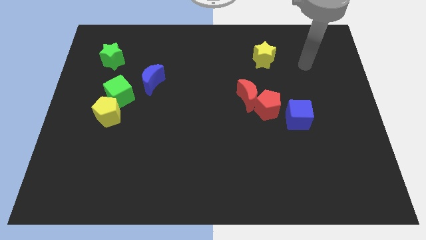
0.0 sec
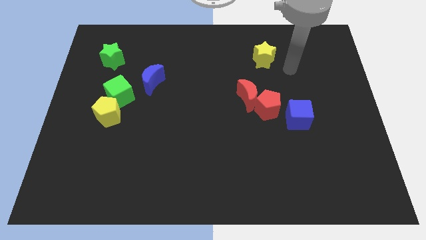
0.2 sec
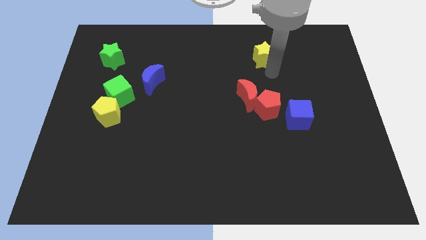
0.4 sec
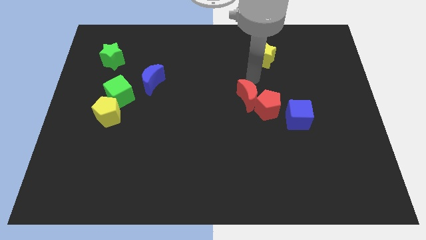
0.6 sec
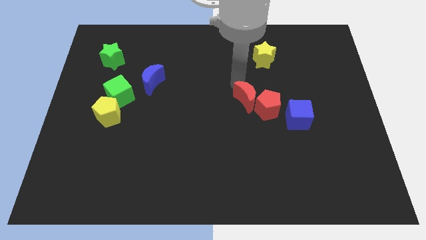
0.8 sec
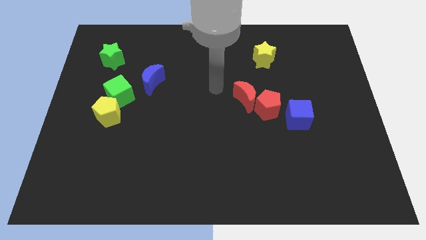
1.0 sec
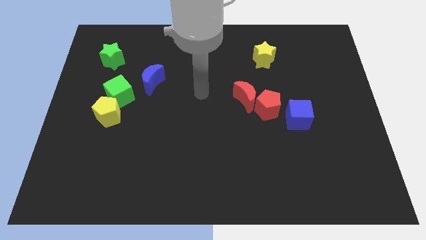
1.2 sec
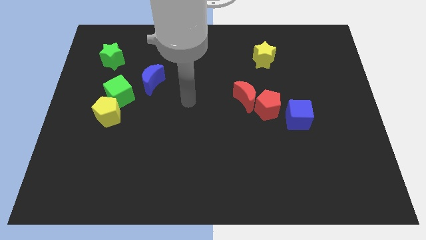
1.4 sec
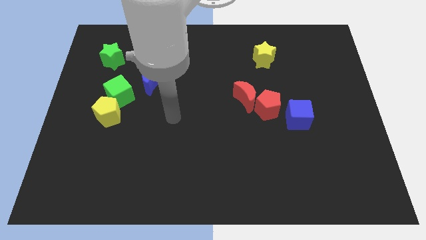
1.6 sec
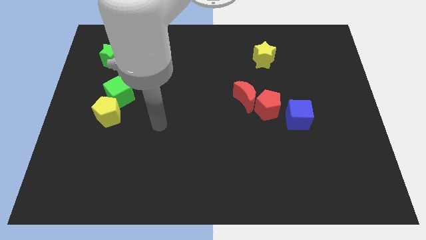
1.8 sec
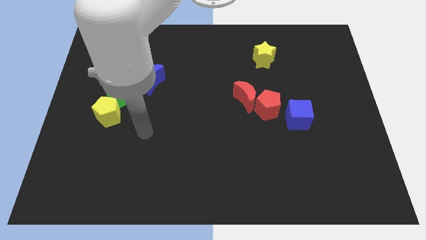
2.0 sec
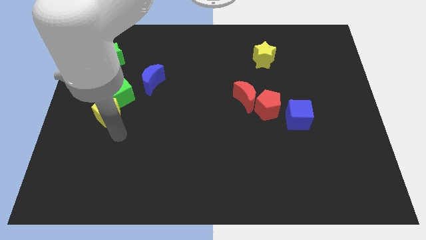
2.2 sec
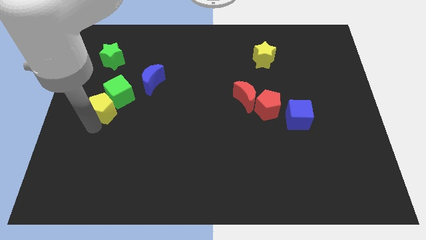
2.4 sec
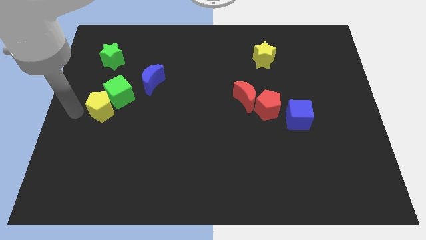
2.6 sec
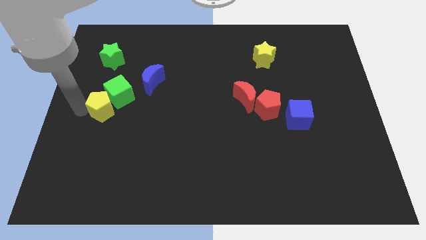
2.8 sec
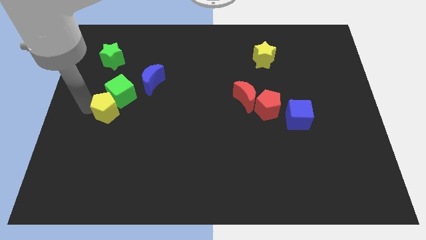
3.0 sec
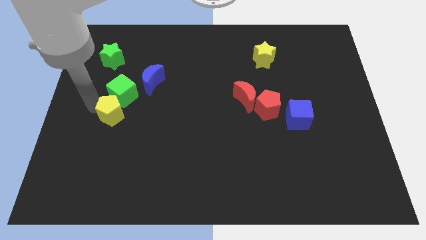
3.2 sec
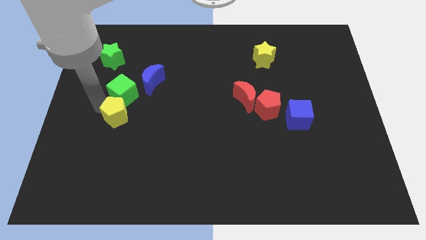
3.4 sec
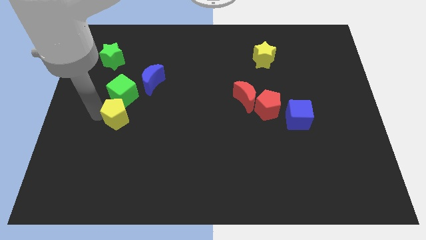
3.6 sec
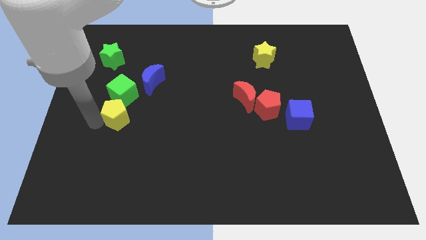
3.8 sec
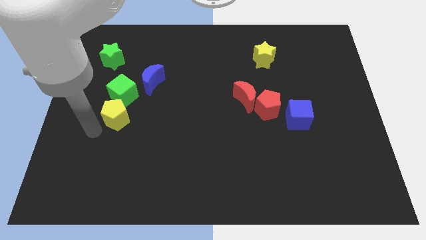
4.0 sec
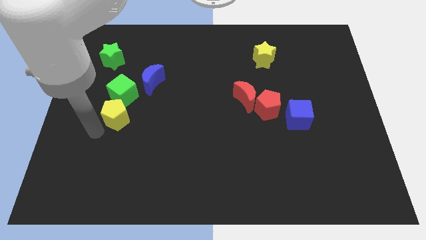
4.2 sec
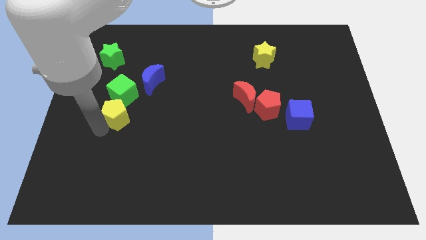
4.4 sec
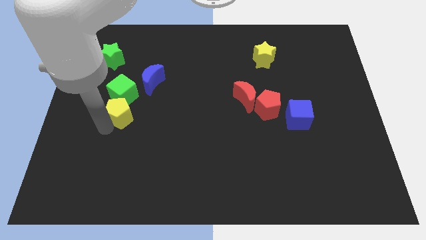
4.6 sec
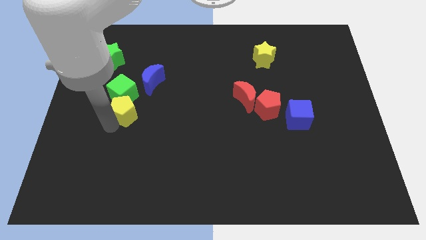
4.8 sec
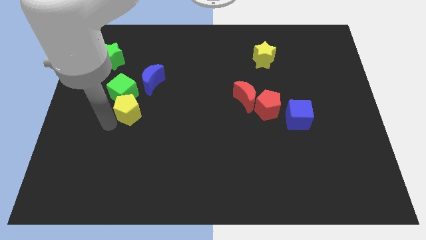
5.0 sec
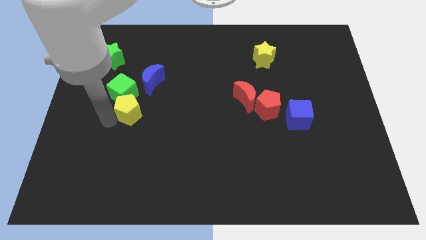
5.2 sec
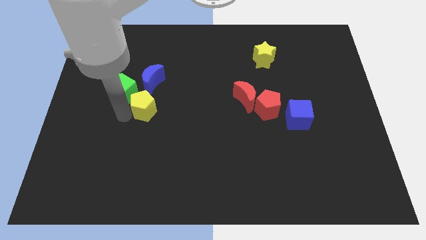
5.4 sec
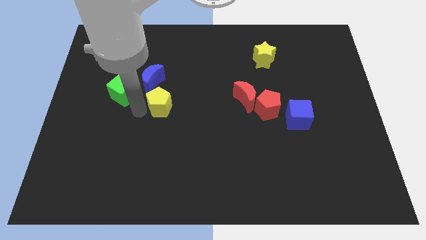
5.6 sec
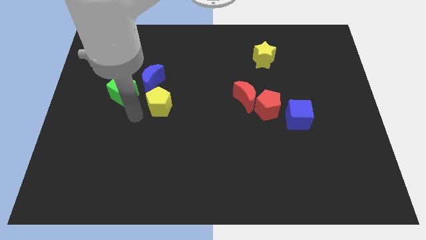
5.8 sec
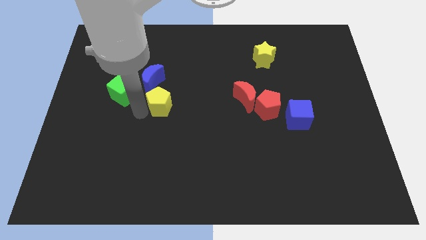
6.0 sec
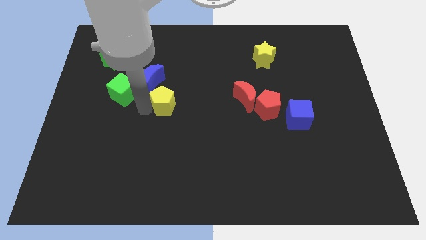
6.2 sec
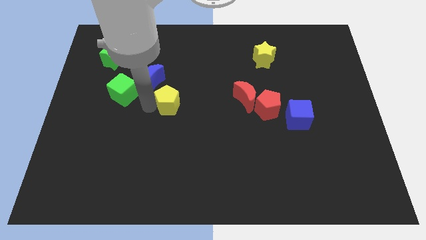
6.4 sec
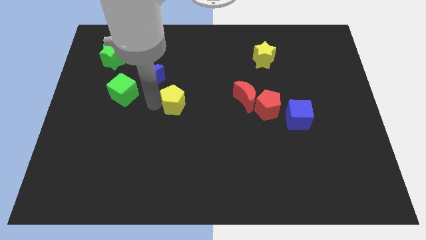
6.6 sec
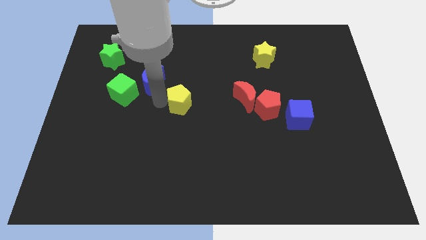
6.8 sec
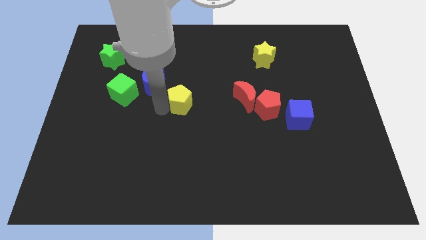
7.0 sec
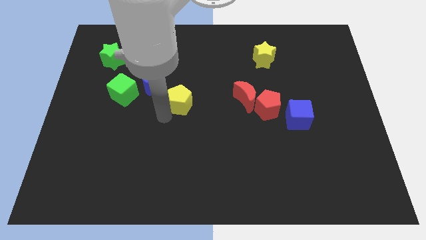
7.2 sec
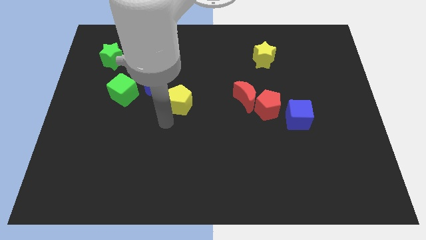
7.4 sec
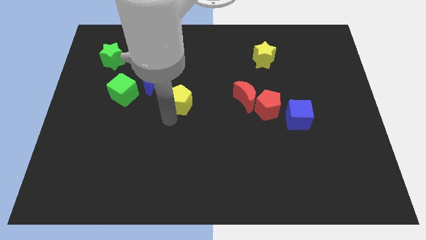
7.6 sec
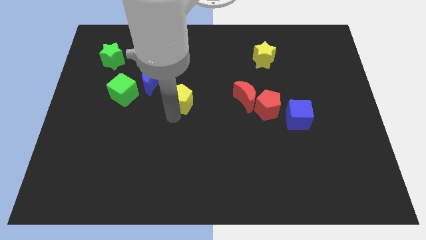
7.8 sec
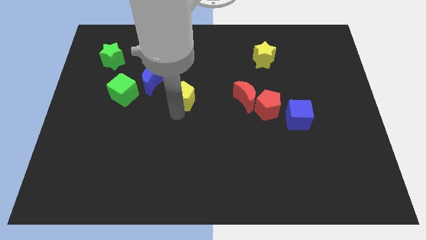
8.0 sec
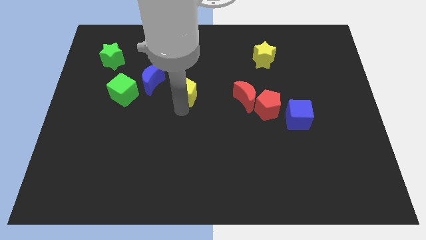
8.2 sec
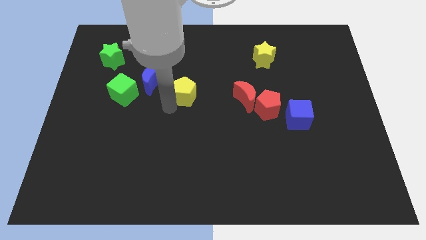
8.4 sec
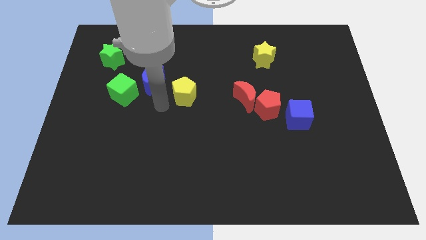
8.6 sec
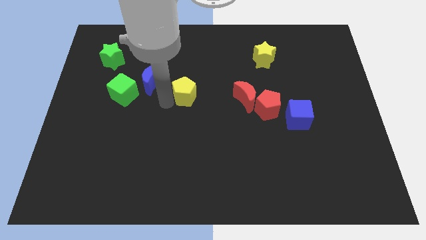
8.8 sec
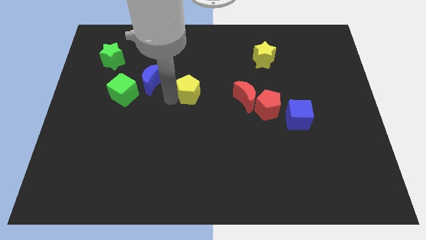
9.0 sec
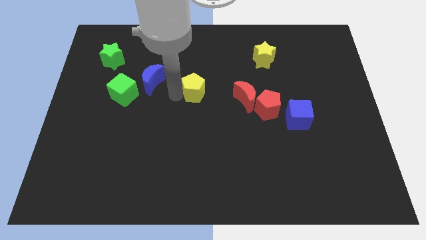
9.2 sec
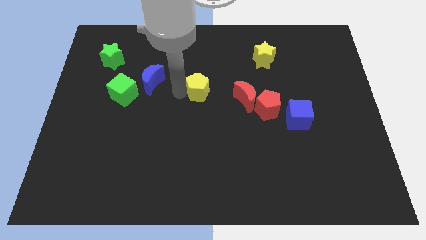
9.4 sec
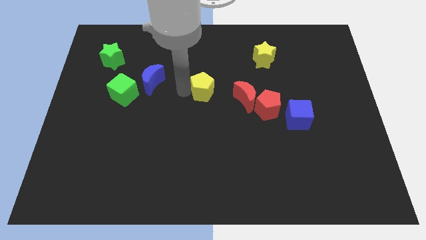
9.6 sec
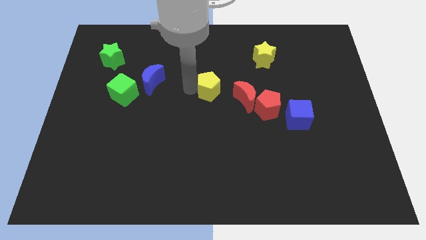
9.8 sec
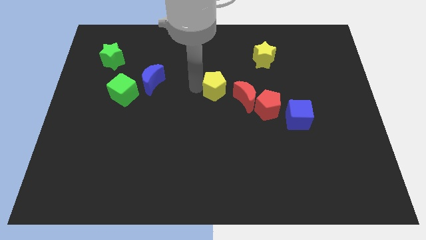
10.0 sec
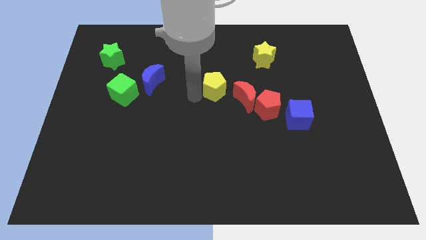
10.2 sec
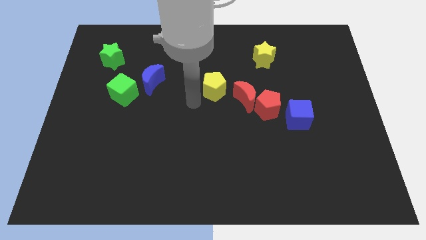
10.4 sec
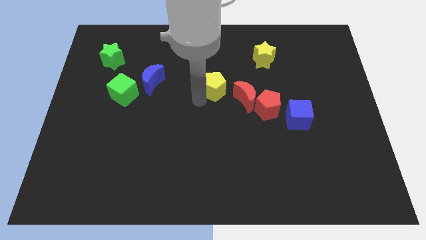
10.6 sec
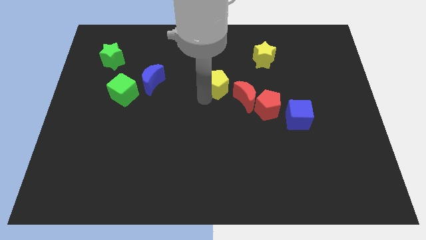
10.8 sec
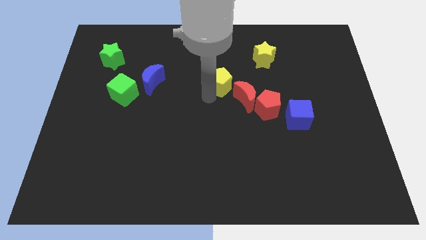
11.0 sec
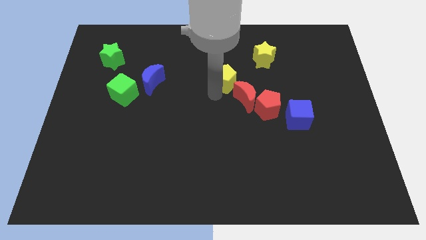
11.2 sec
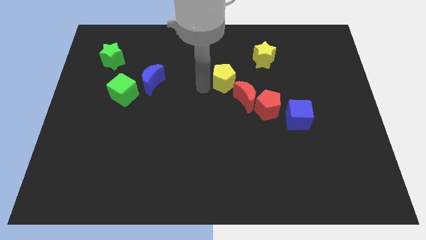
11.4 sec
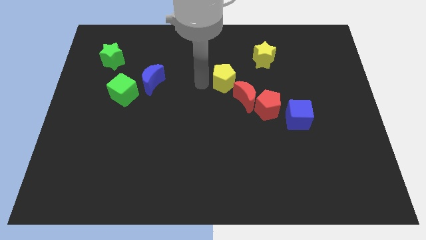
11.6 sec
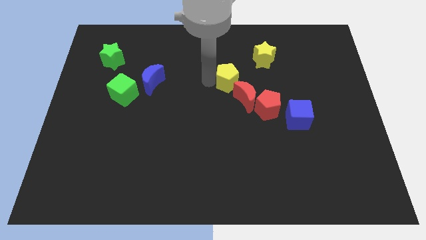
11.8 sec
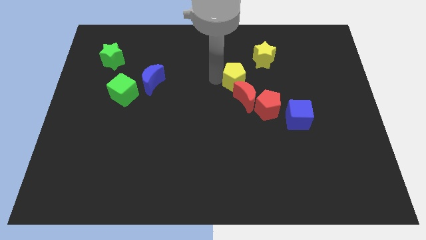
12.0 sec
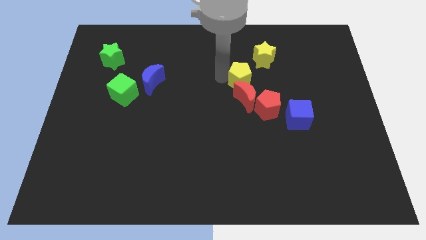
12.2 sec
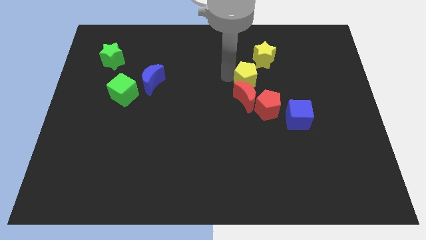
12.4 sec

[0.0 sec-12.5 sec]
push the yellow pentagon to the top side of the red pentagon
